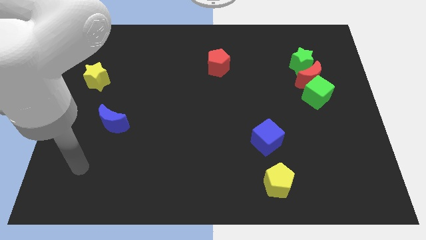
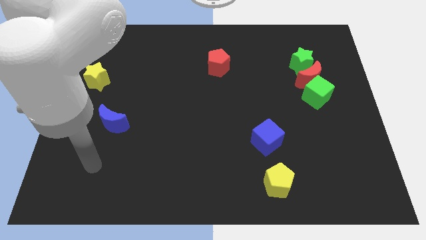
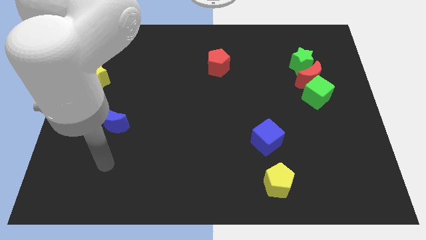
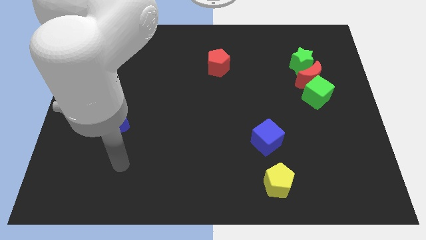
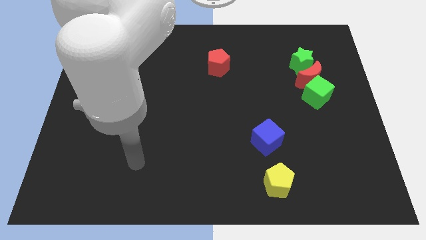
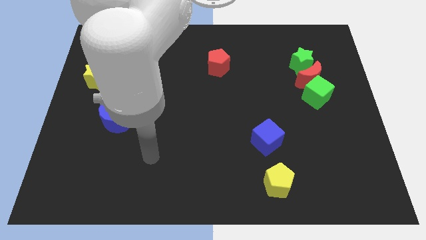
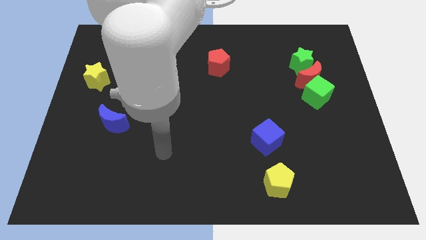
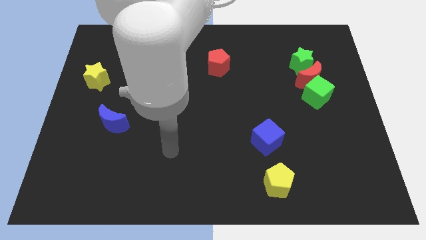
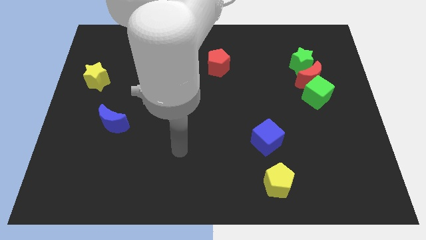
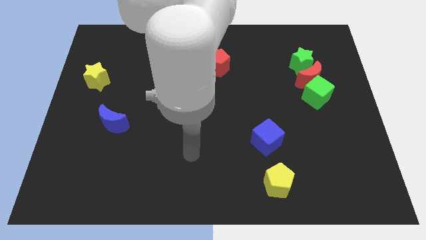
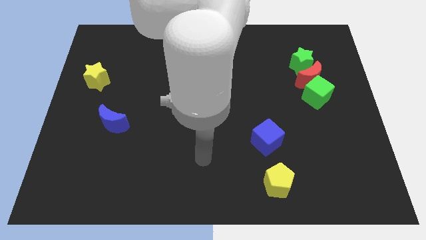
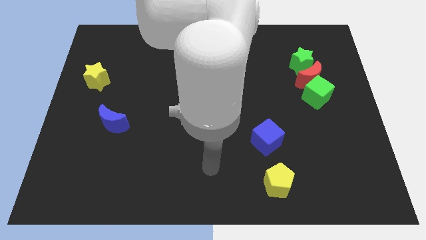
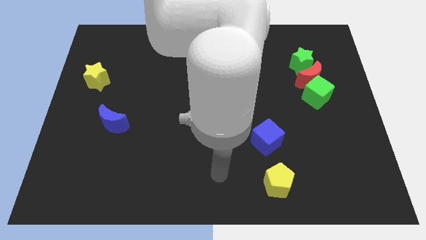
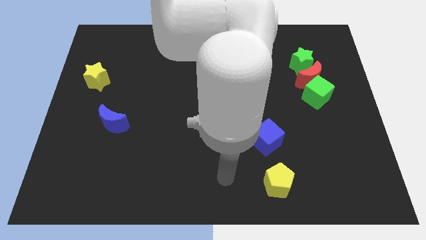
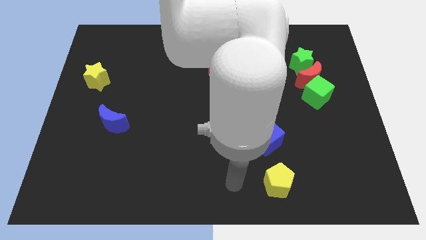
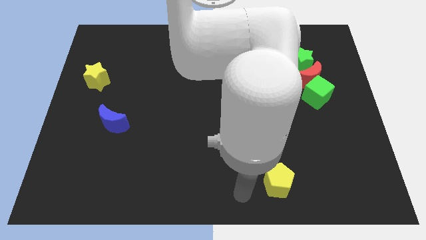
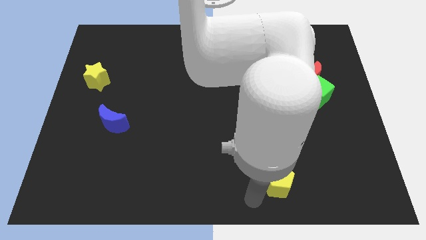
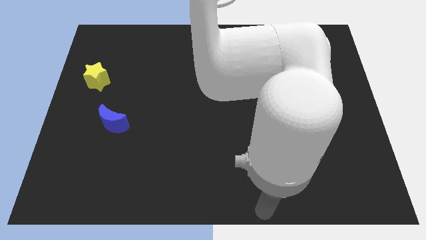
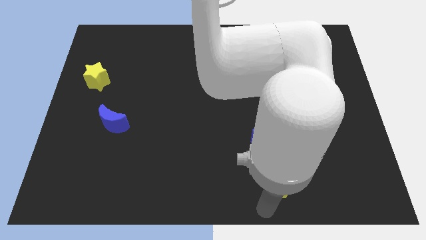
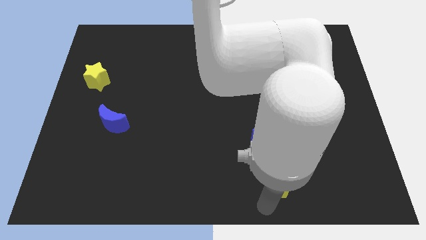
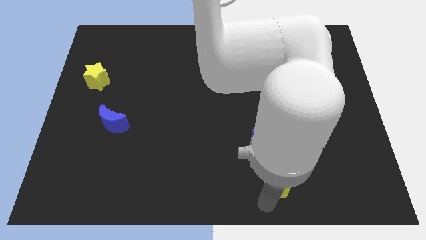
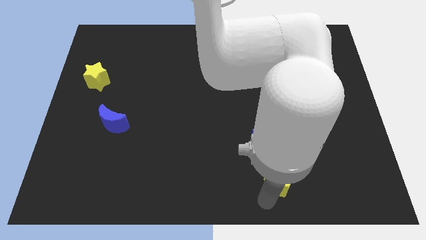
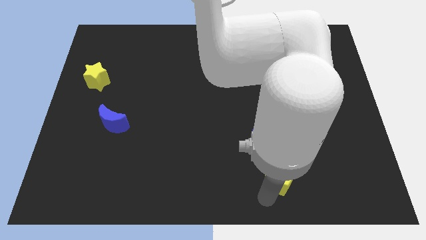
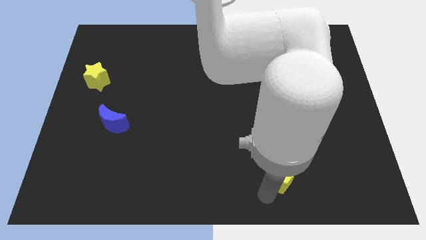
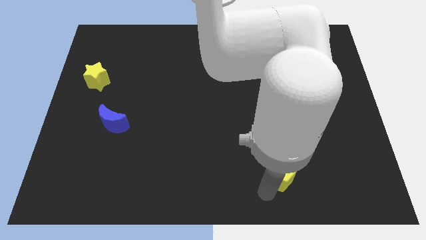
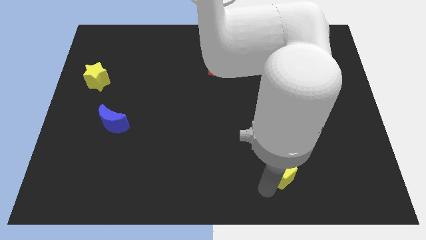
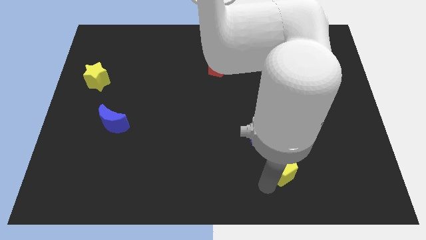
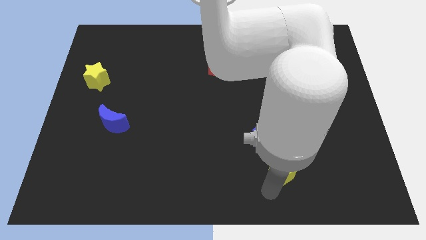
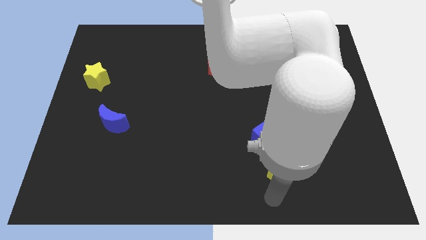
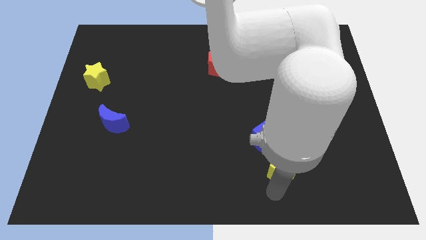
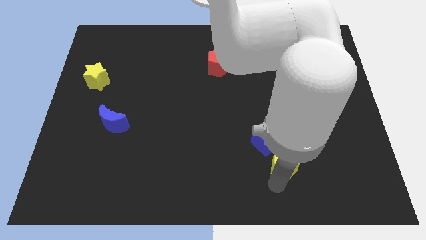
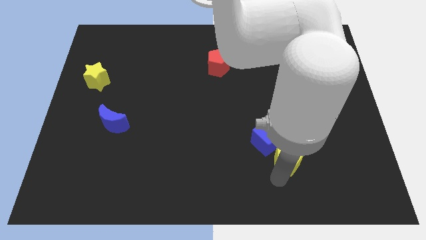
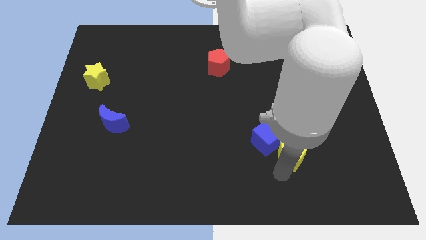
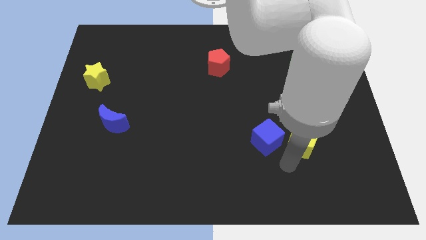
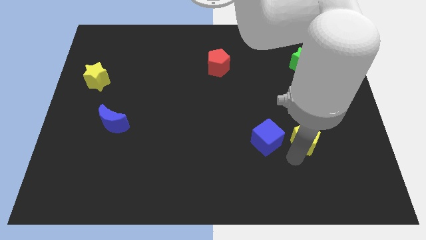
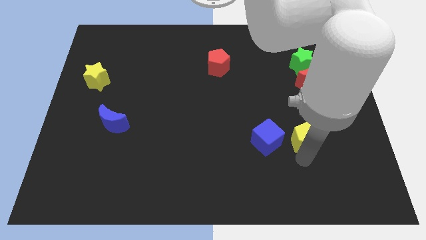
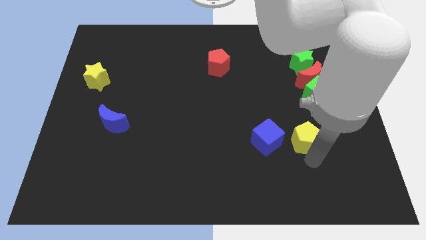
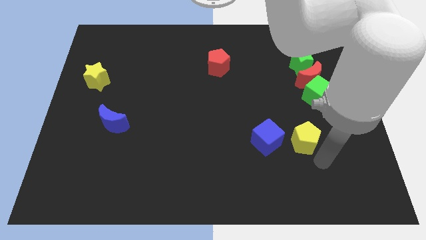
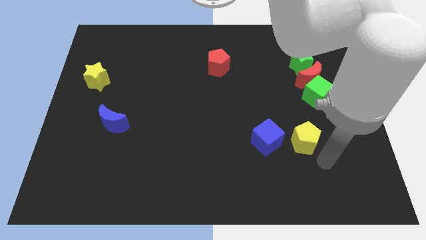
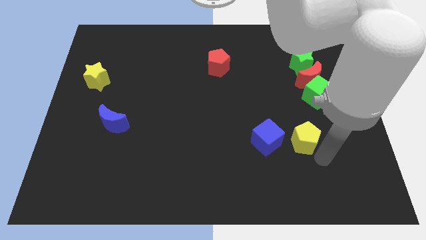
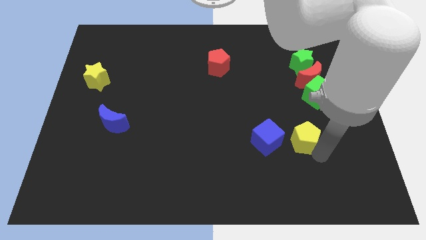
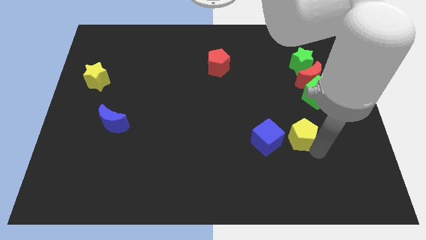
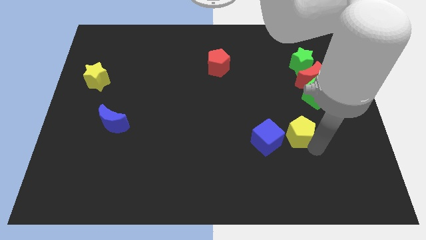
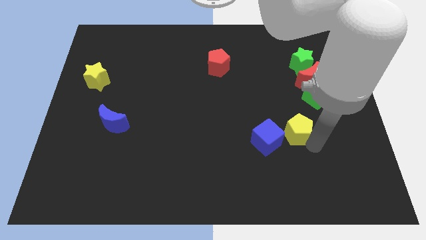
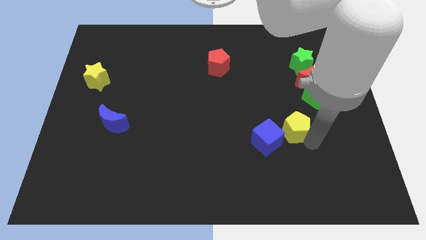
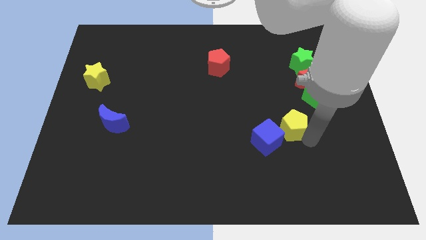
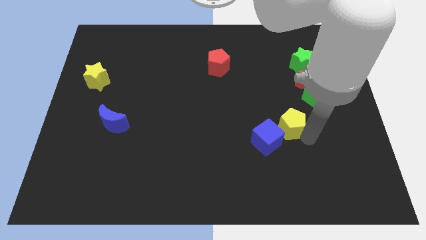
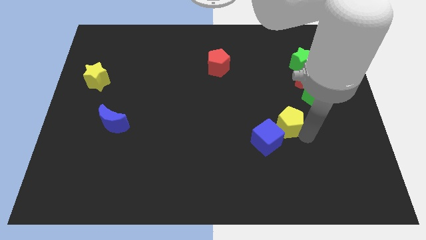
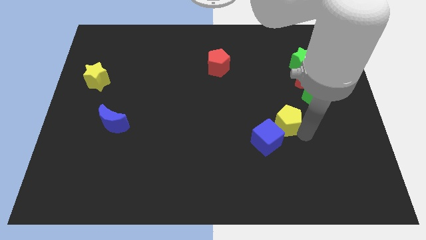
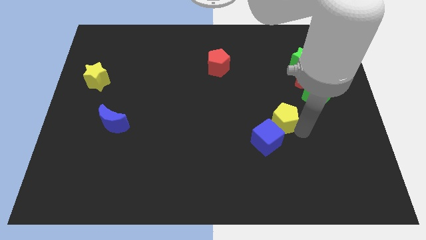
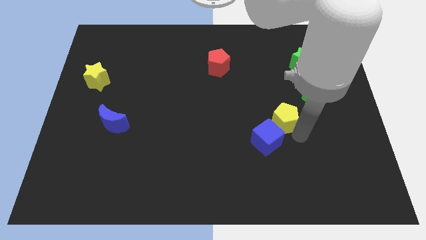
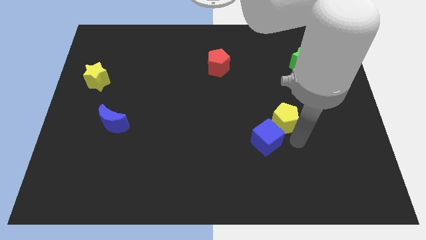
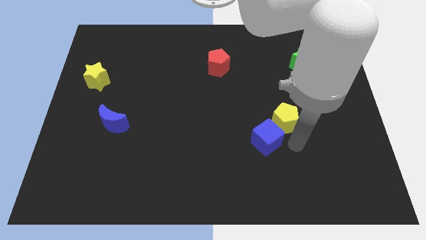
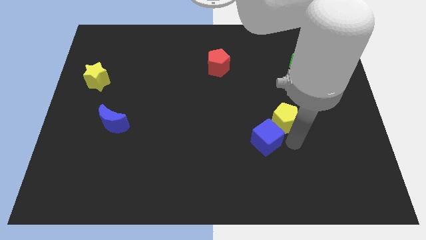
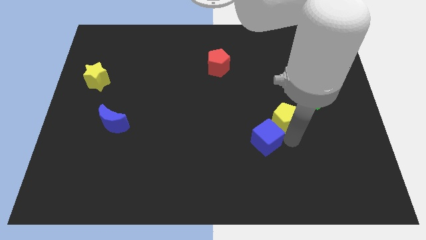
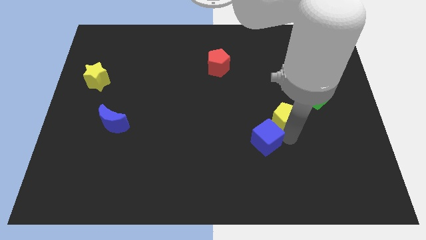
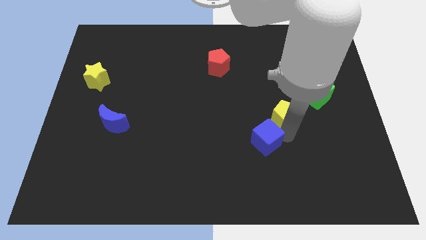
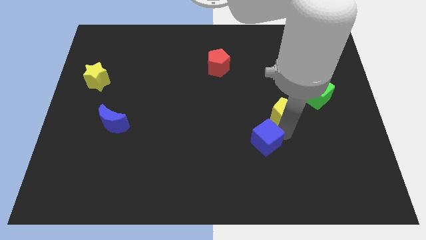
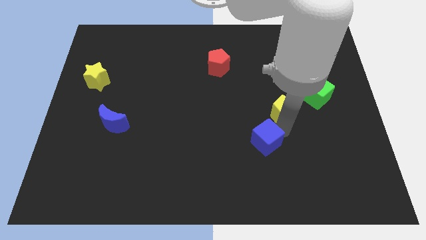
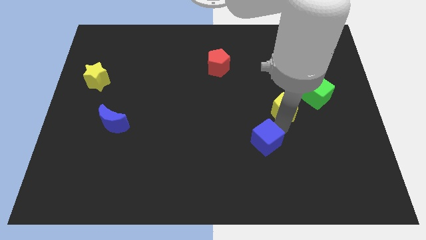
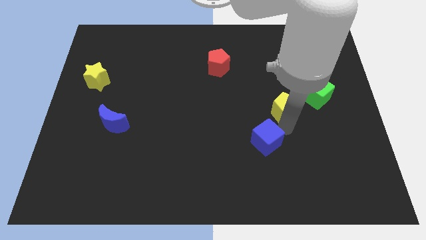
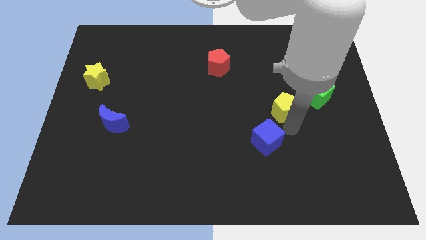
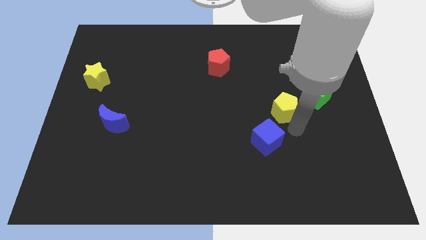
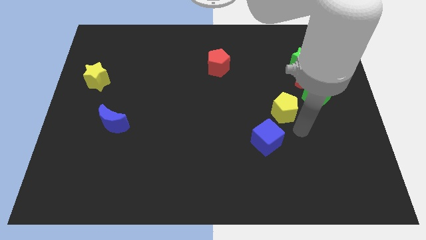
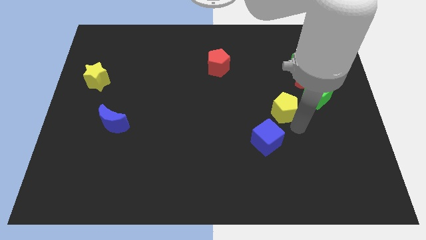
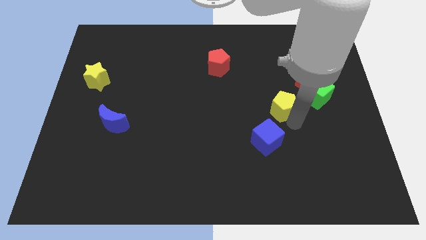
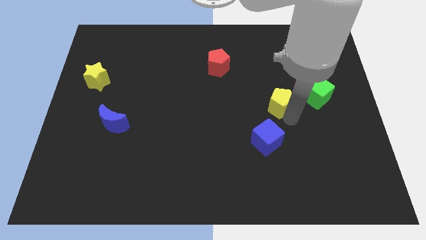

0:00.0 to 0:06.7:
move the yellow pentagon upwards

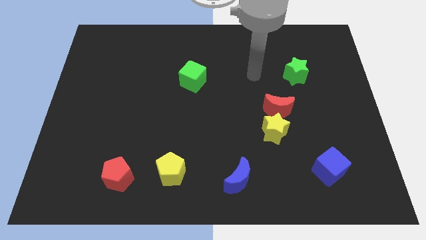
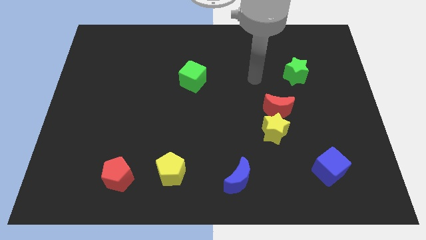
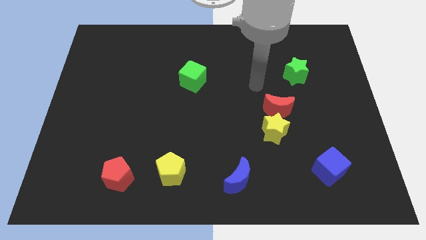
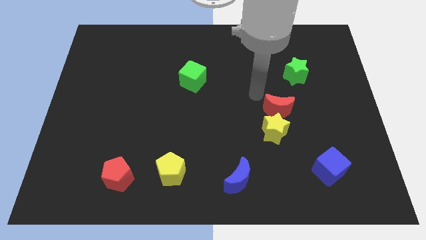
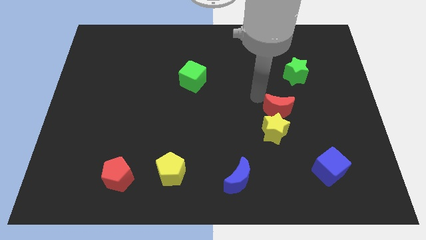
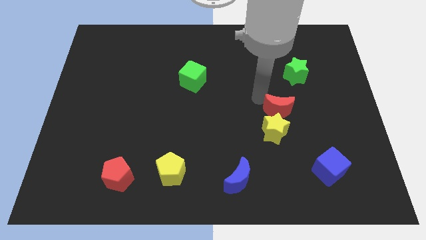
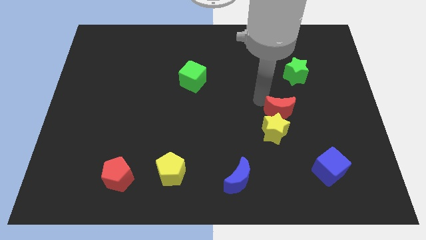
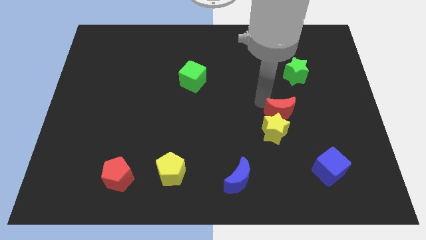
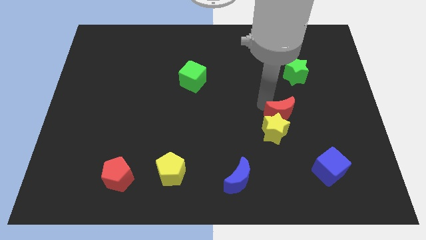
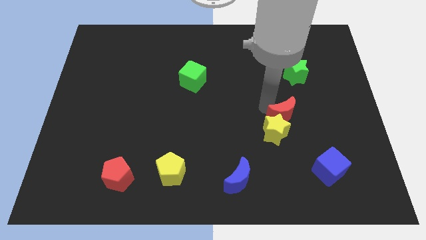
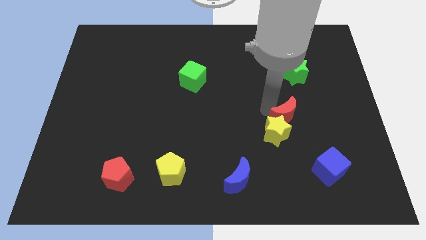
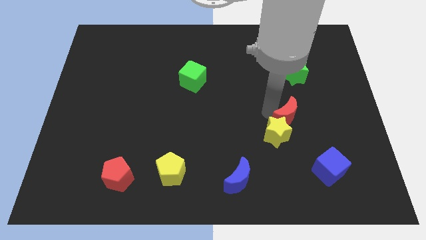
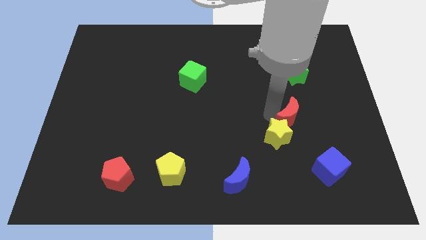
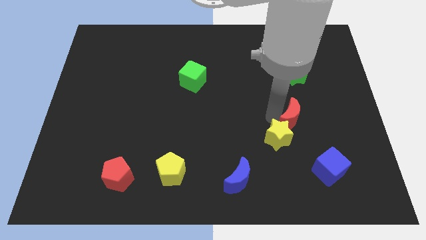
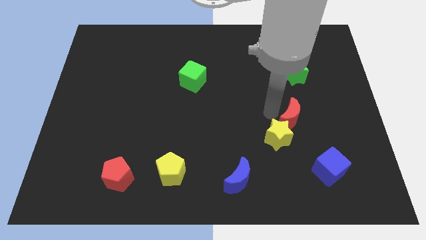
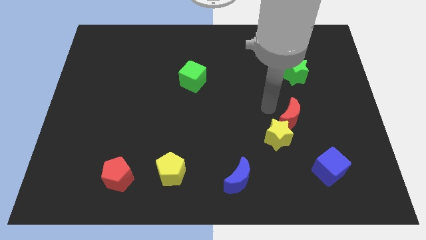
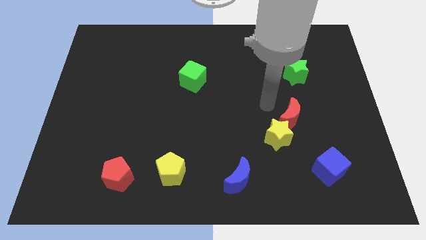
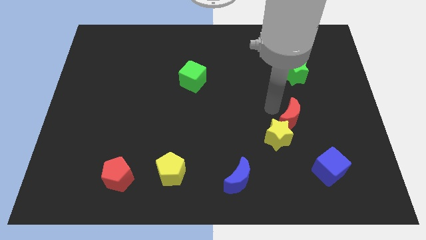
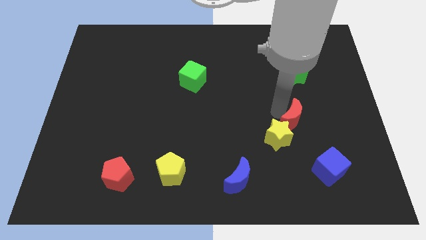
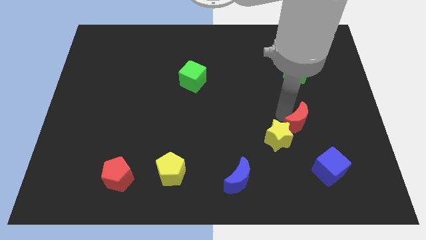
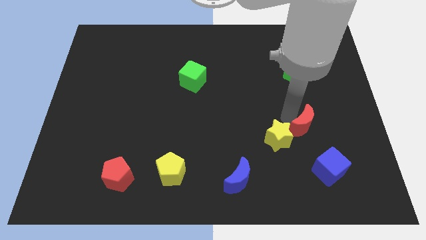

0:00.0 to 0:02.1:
move the red moon slightly diagonally downwards and right
